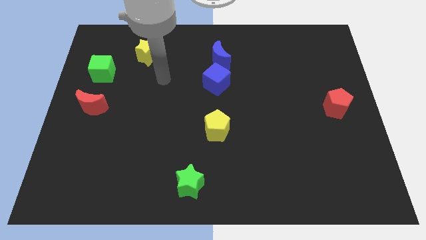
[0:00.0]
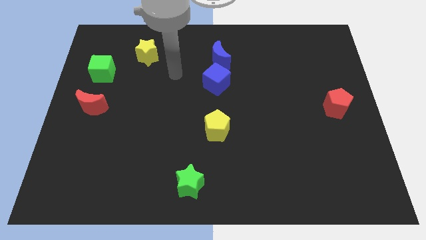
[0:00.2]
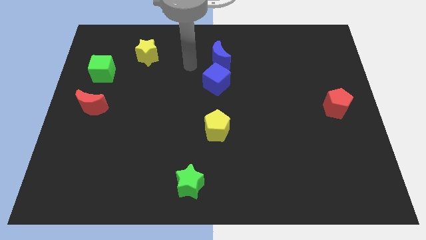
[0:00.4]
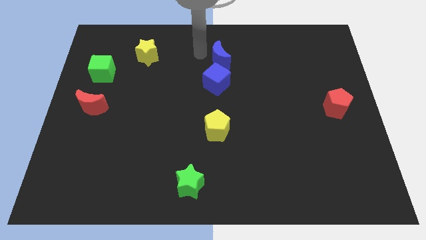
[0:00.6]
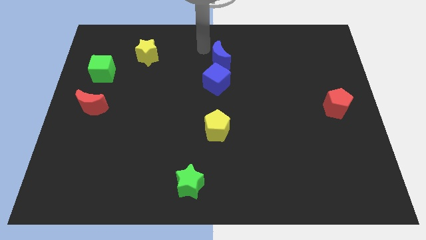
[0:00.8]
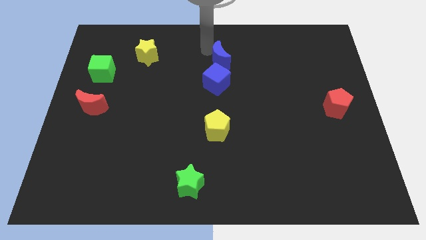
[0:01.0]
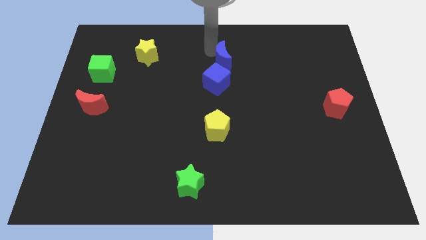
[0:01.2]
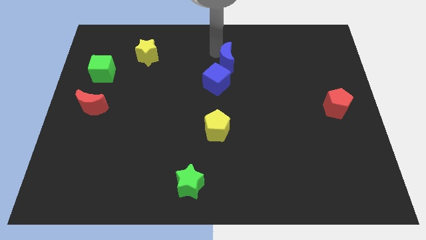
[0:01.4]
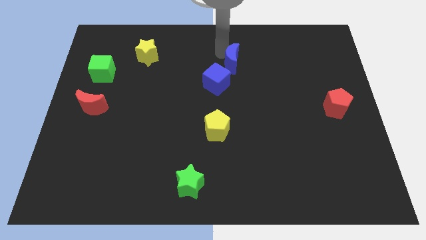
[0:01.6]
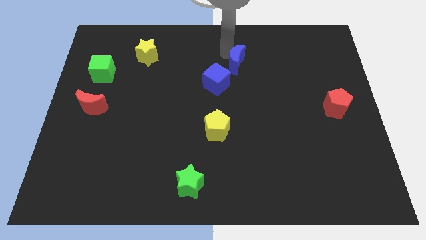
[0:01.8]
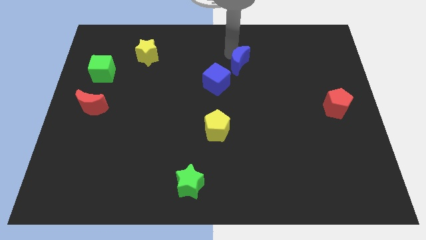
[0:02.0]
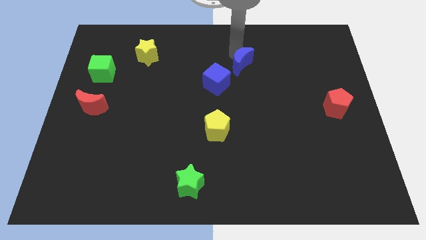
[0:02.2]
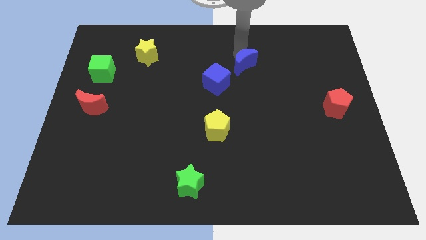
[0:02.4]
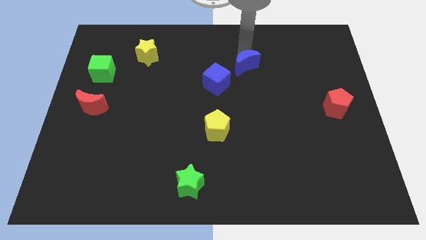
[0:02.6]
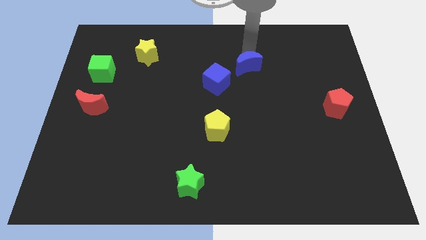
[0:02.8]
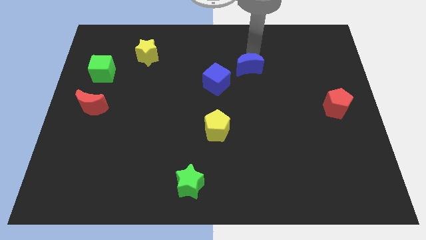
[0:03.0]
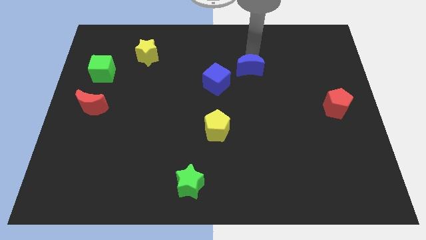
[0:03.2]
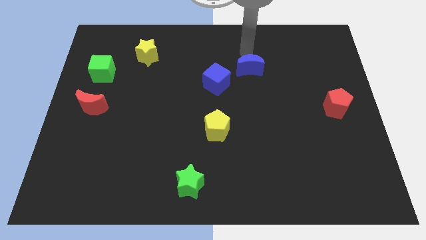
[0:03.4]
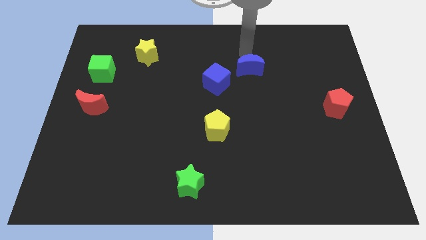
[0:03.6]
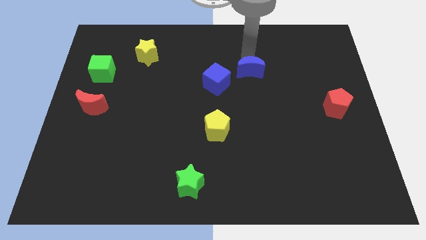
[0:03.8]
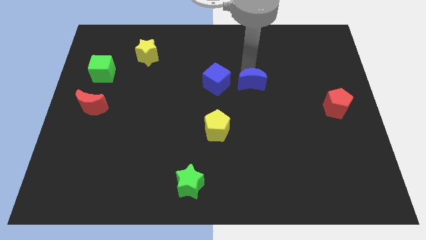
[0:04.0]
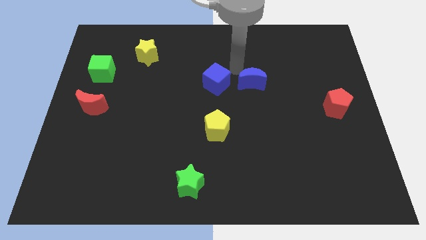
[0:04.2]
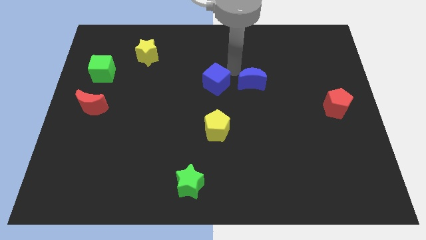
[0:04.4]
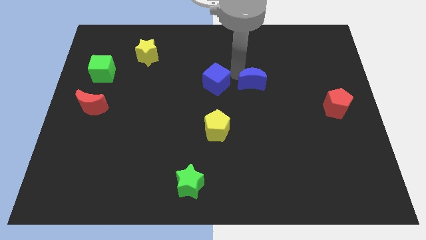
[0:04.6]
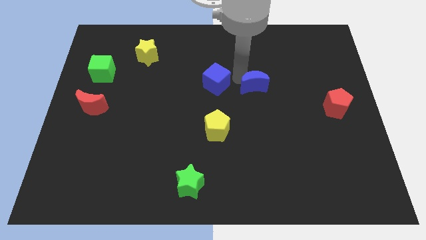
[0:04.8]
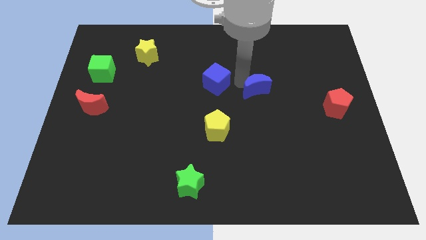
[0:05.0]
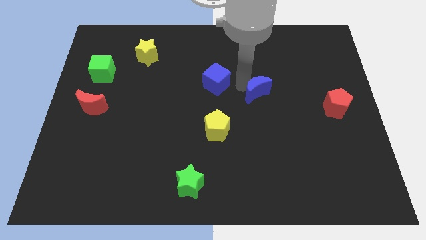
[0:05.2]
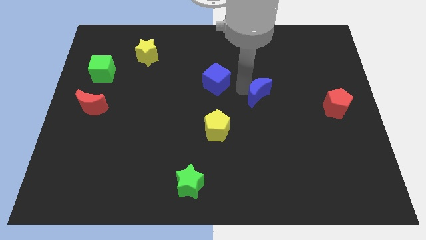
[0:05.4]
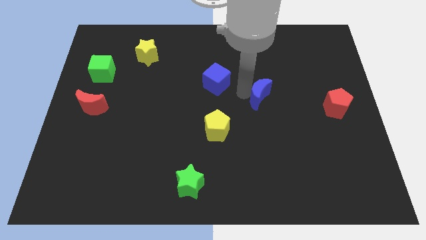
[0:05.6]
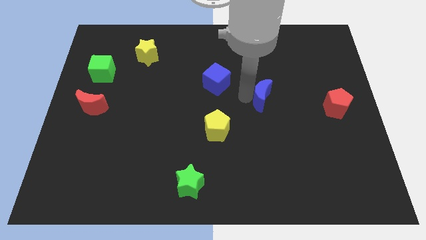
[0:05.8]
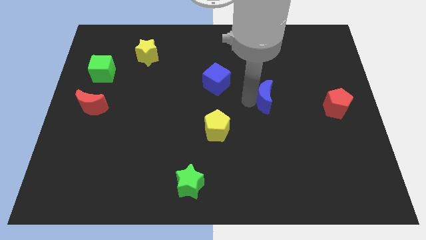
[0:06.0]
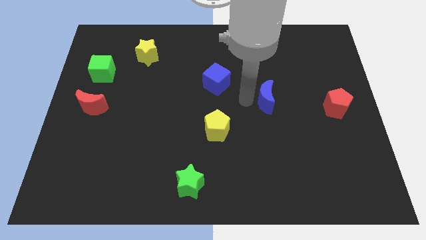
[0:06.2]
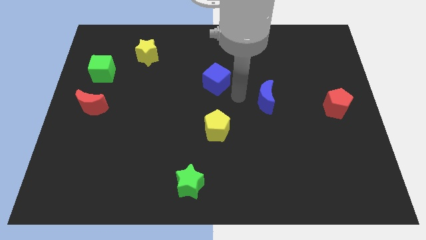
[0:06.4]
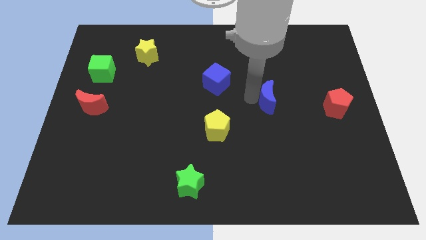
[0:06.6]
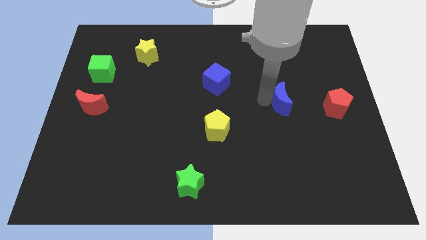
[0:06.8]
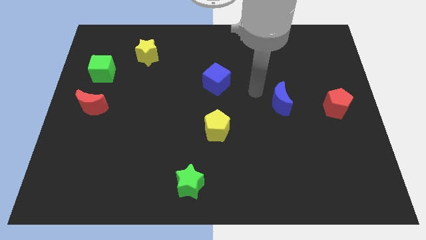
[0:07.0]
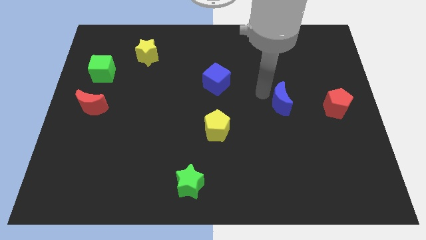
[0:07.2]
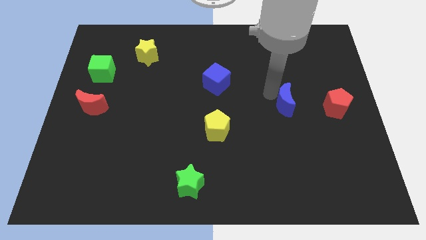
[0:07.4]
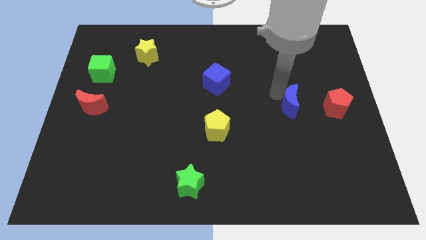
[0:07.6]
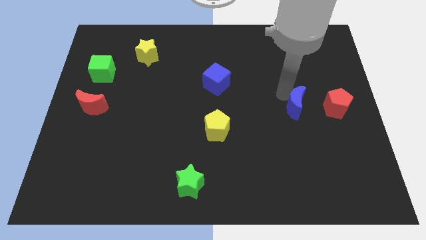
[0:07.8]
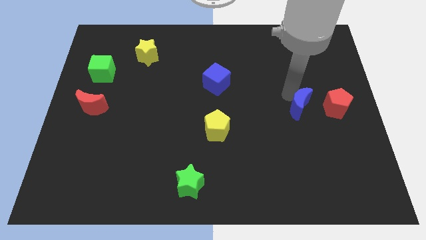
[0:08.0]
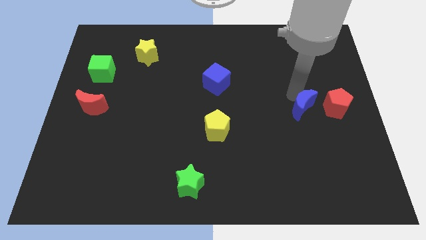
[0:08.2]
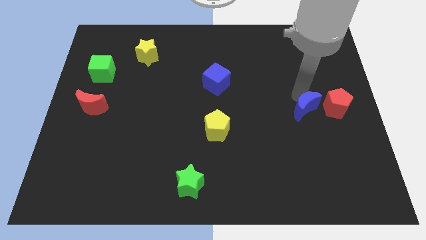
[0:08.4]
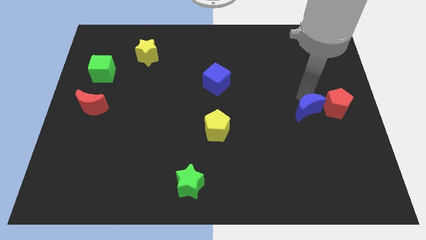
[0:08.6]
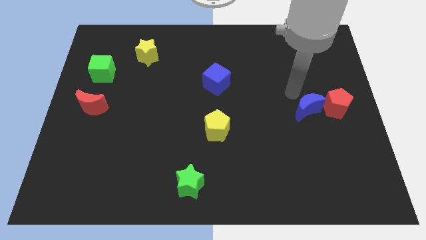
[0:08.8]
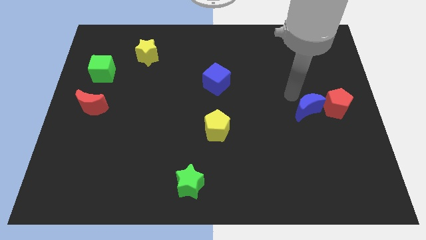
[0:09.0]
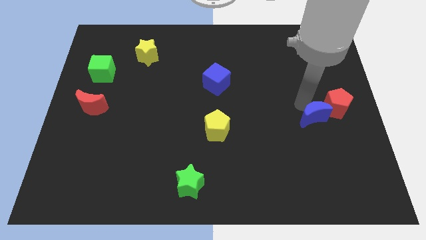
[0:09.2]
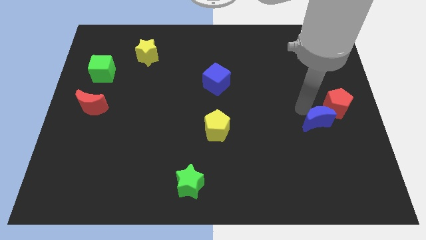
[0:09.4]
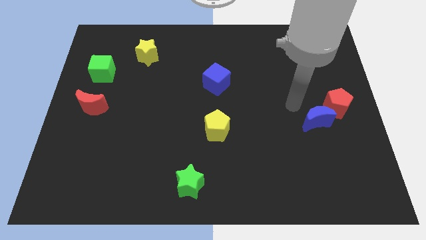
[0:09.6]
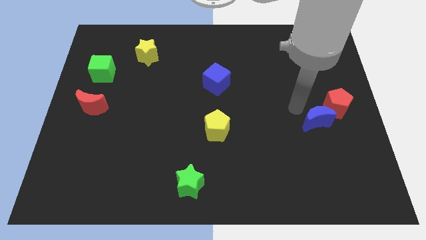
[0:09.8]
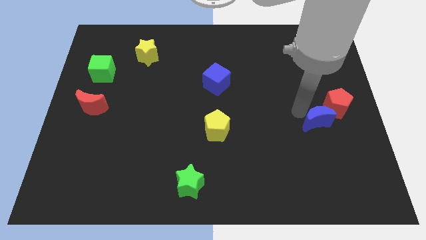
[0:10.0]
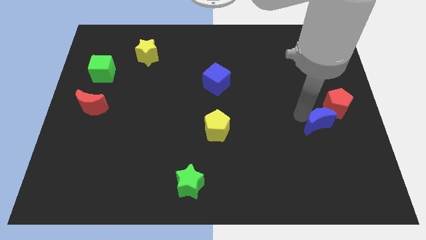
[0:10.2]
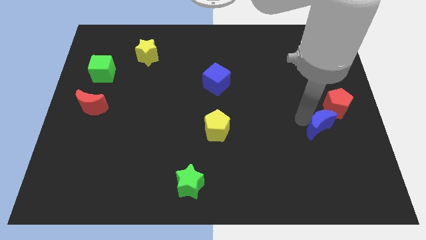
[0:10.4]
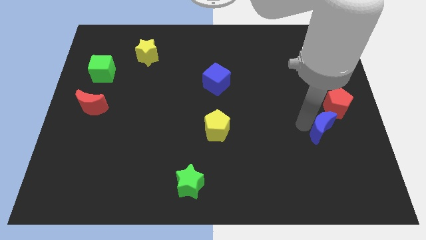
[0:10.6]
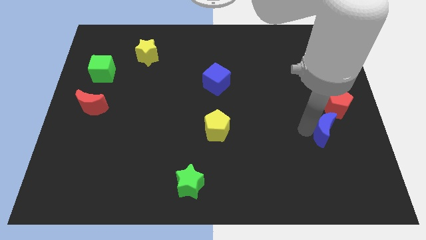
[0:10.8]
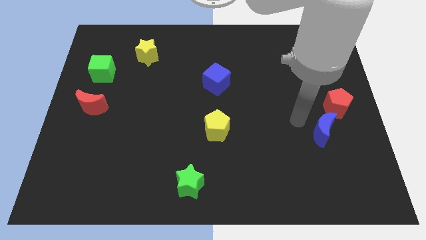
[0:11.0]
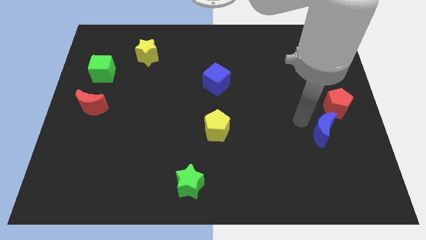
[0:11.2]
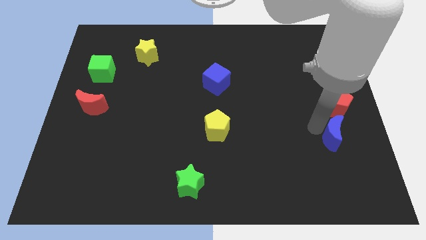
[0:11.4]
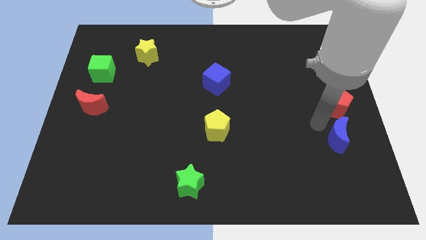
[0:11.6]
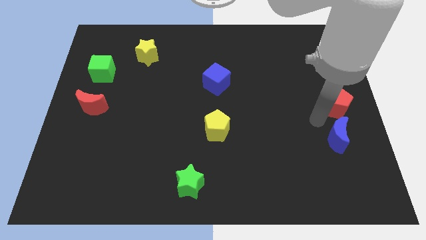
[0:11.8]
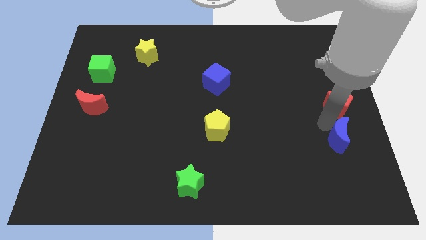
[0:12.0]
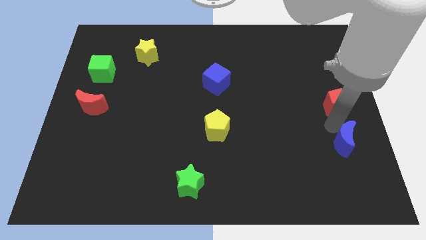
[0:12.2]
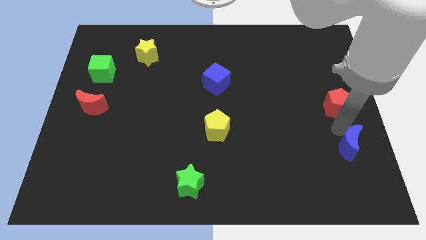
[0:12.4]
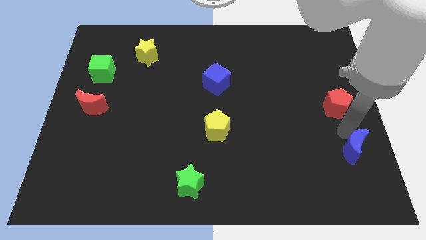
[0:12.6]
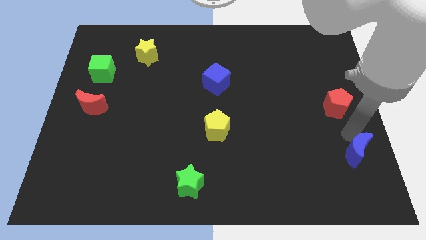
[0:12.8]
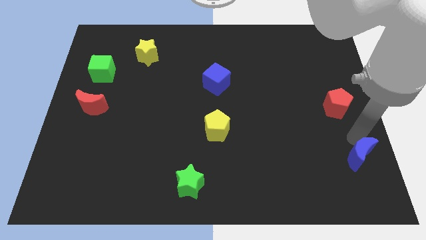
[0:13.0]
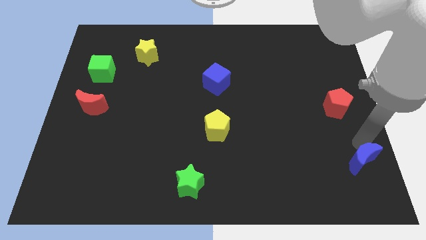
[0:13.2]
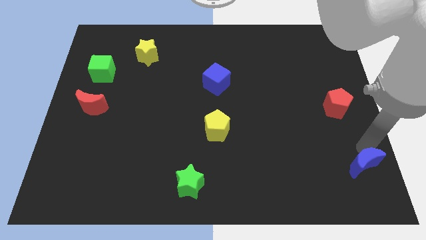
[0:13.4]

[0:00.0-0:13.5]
push the blue moon to the bottom right corner
